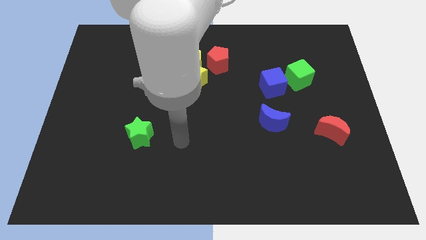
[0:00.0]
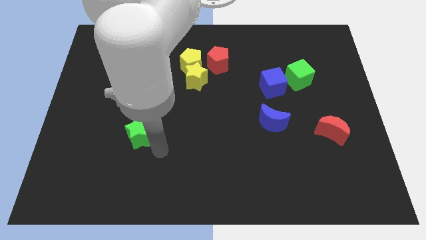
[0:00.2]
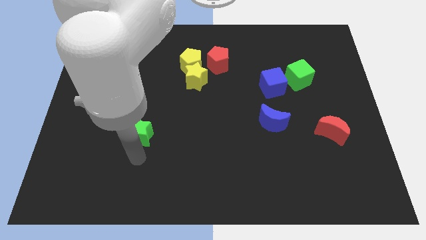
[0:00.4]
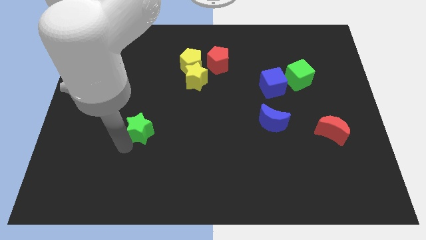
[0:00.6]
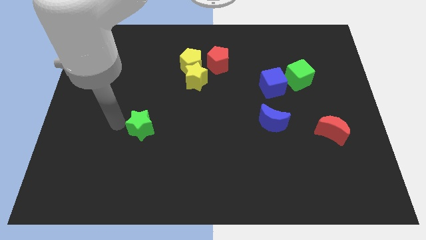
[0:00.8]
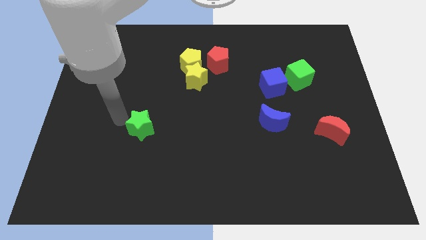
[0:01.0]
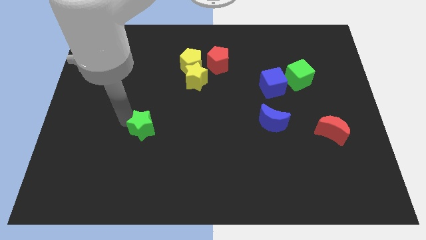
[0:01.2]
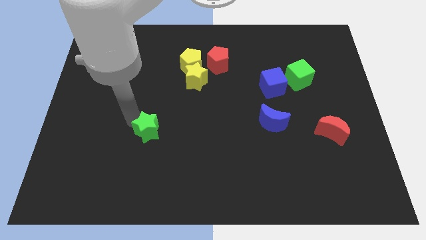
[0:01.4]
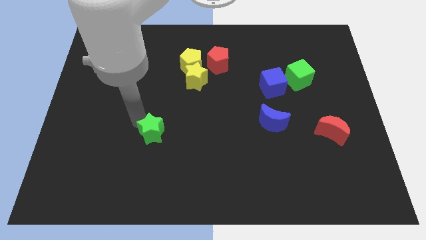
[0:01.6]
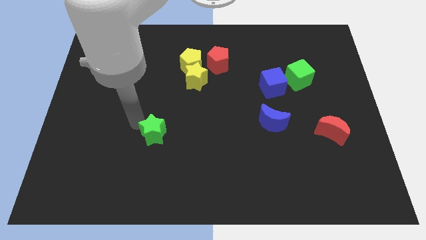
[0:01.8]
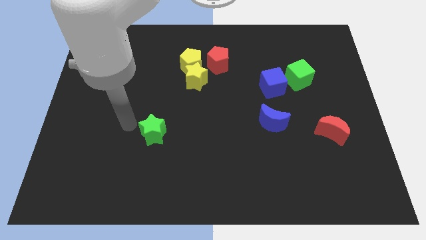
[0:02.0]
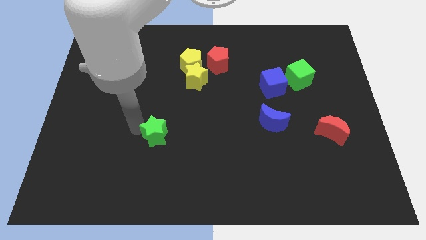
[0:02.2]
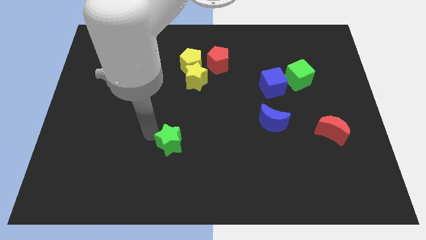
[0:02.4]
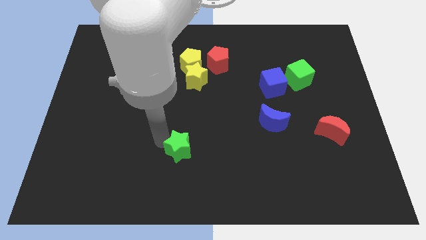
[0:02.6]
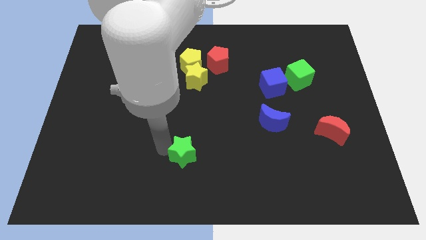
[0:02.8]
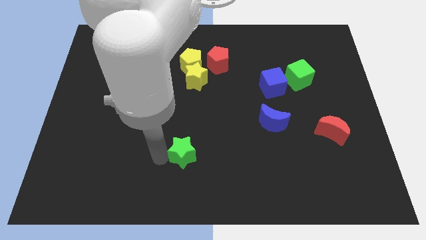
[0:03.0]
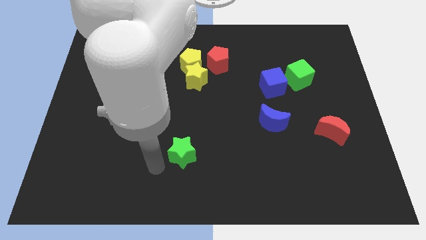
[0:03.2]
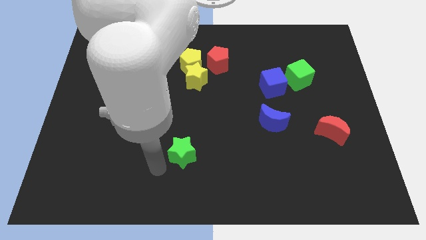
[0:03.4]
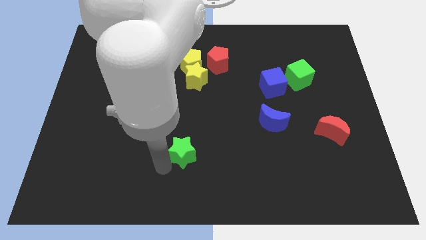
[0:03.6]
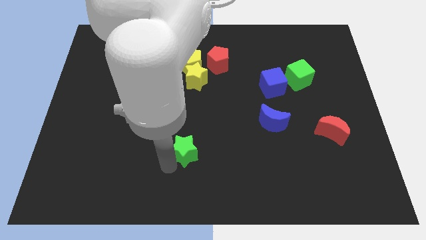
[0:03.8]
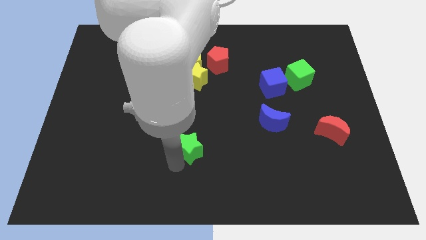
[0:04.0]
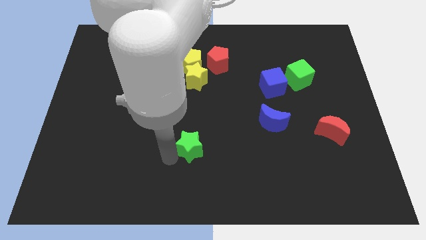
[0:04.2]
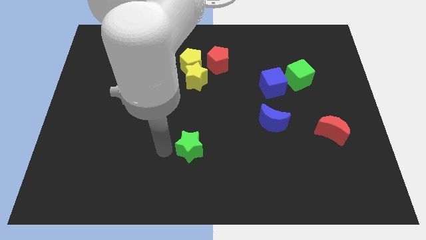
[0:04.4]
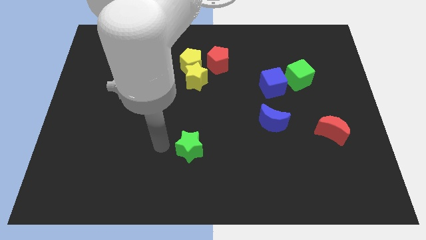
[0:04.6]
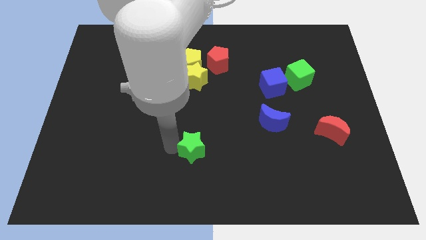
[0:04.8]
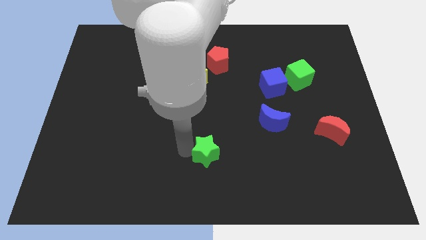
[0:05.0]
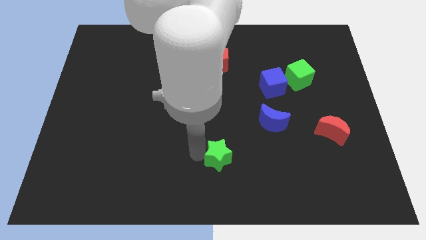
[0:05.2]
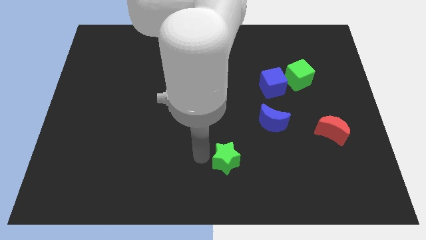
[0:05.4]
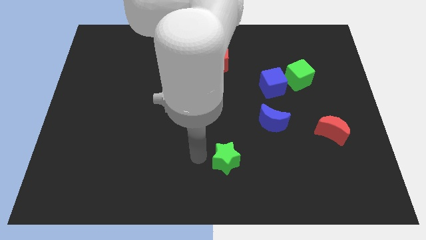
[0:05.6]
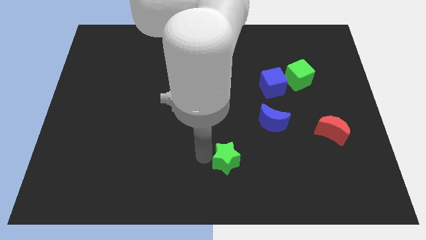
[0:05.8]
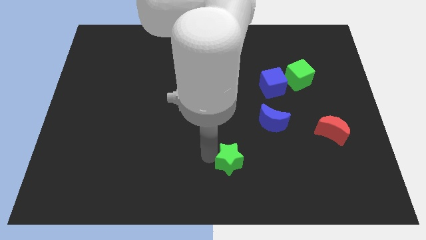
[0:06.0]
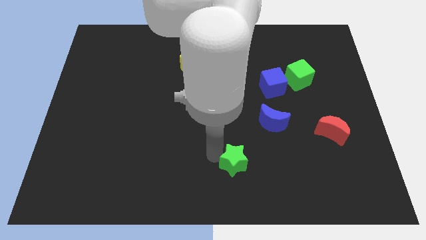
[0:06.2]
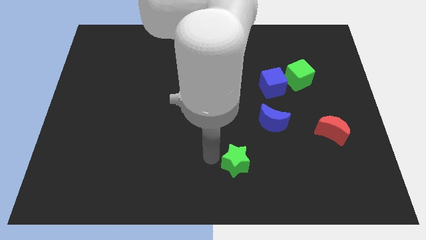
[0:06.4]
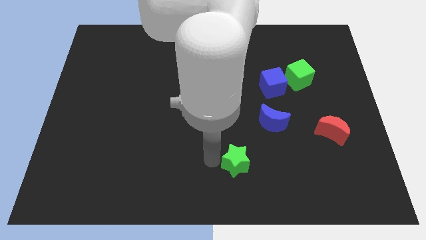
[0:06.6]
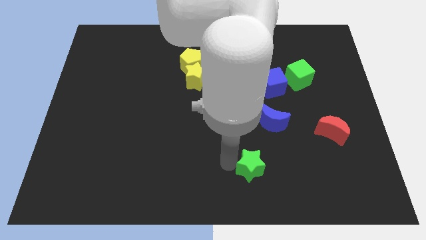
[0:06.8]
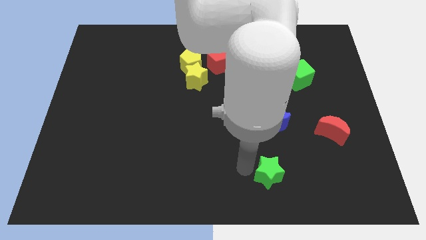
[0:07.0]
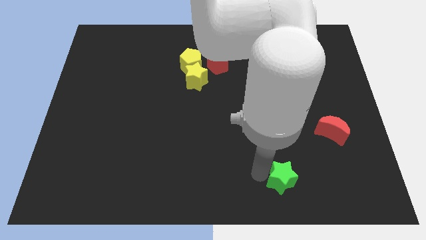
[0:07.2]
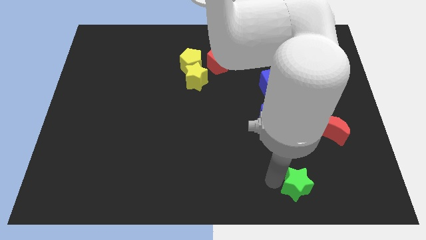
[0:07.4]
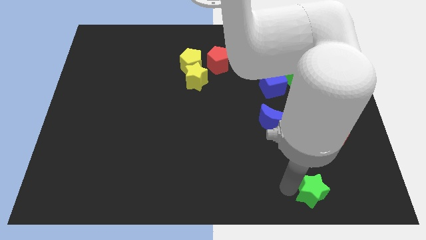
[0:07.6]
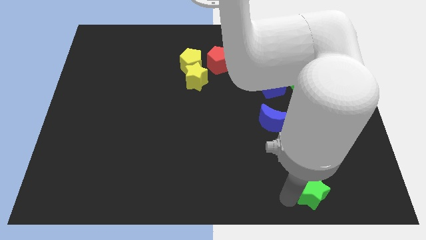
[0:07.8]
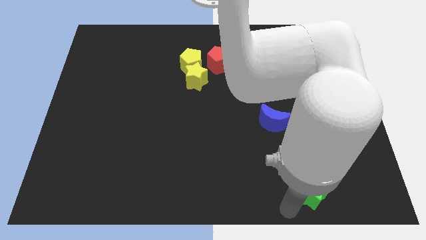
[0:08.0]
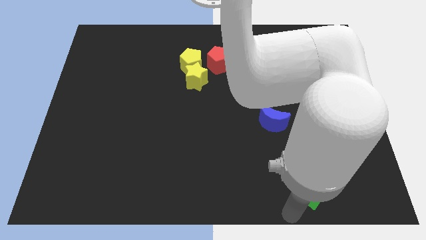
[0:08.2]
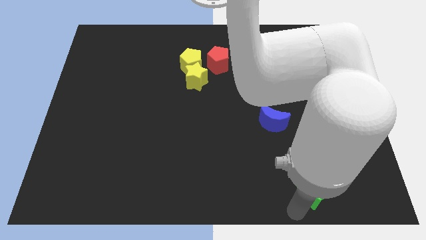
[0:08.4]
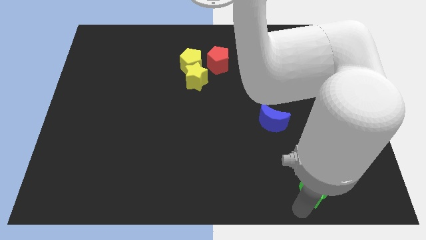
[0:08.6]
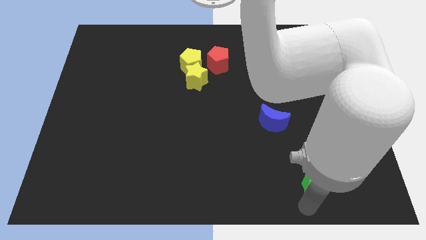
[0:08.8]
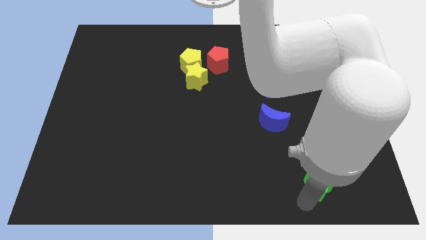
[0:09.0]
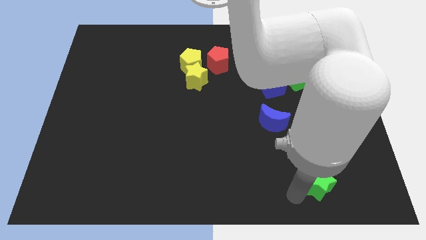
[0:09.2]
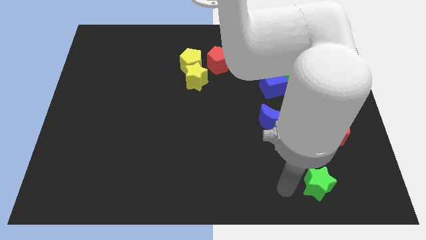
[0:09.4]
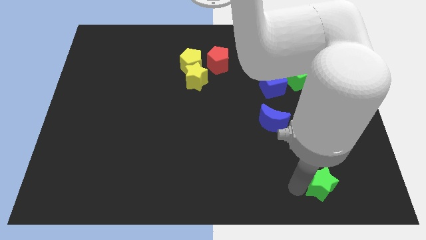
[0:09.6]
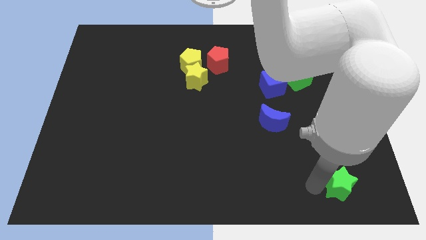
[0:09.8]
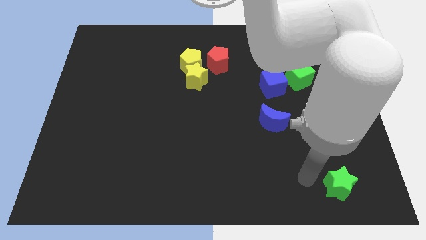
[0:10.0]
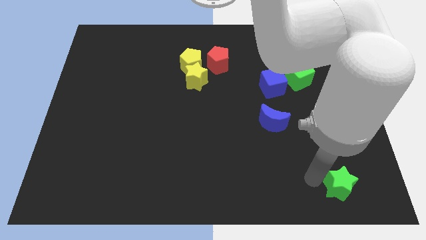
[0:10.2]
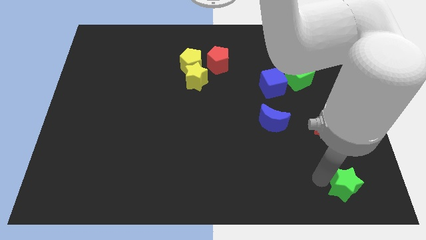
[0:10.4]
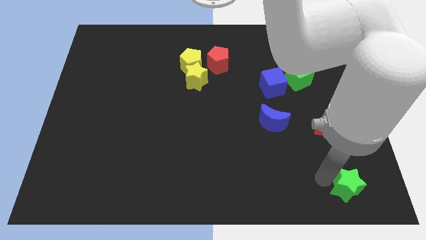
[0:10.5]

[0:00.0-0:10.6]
move the green star to the bottom right
